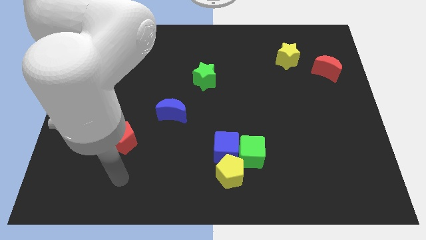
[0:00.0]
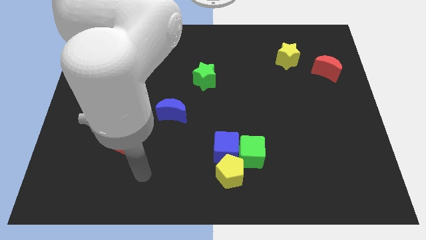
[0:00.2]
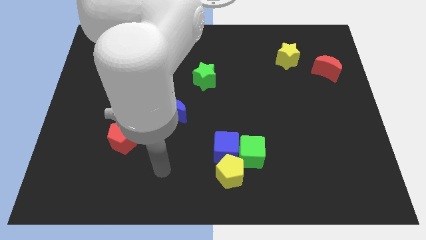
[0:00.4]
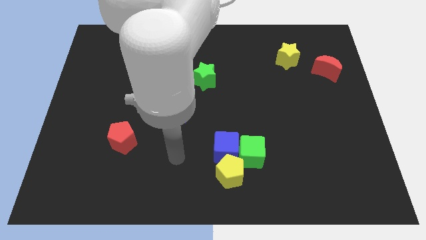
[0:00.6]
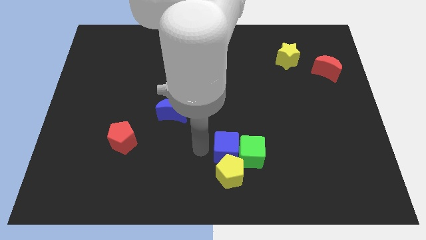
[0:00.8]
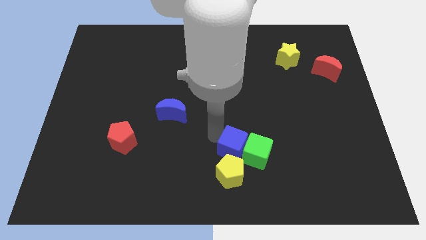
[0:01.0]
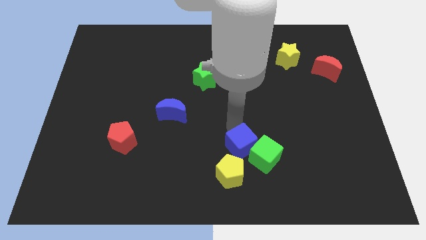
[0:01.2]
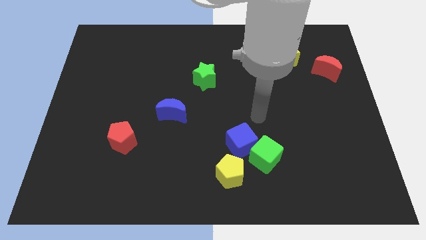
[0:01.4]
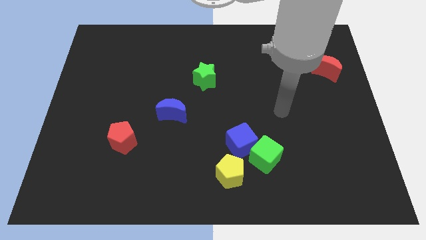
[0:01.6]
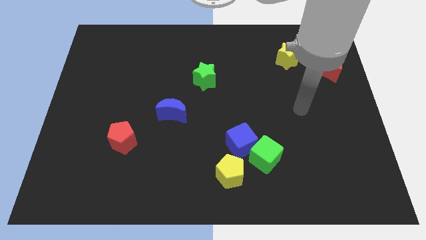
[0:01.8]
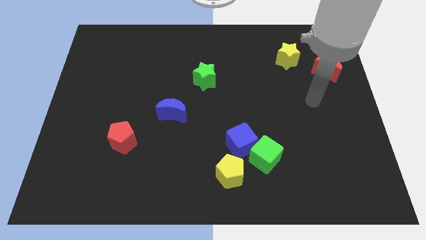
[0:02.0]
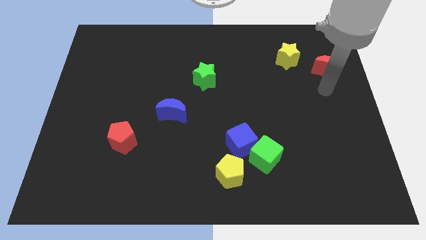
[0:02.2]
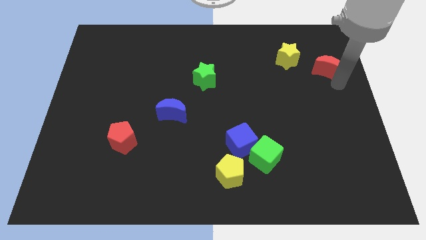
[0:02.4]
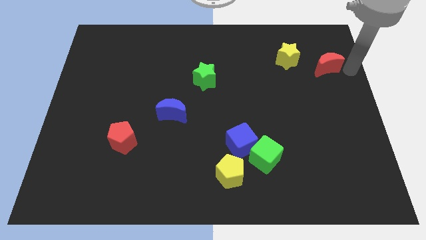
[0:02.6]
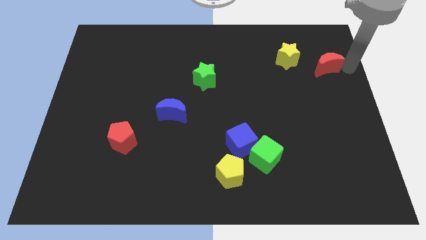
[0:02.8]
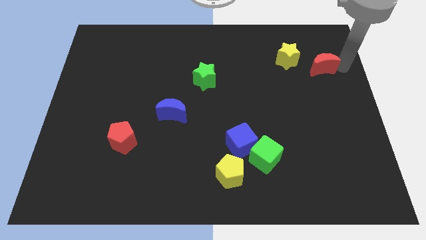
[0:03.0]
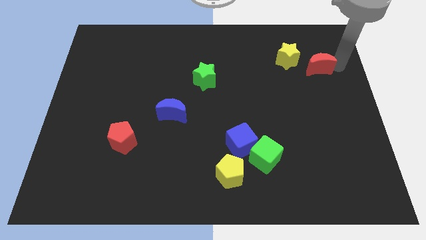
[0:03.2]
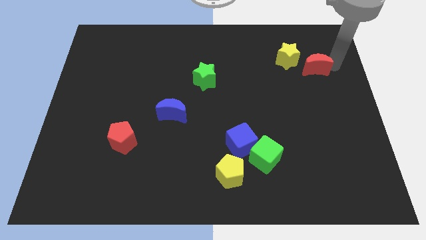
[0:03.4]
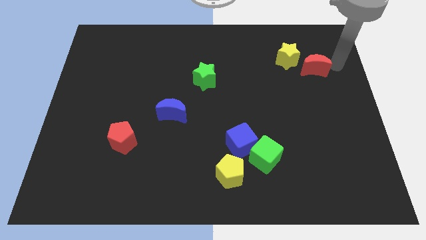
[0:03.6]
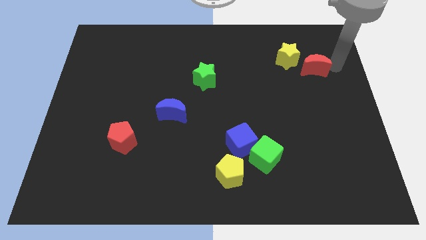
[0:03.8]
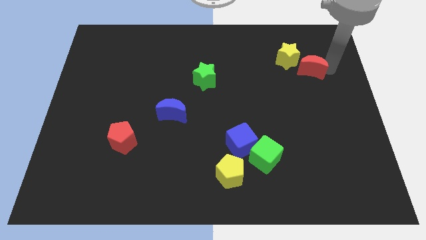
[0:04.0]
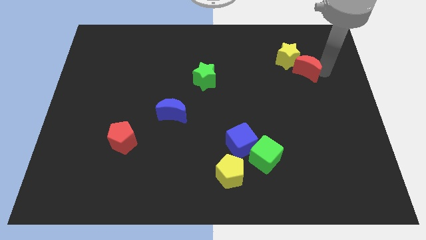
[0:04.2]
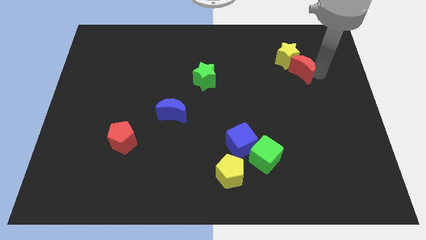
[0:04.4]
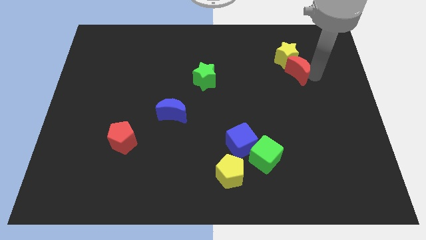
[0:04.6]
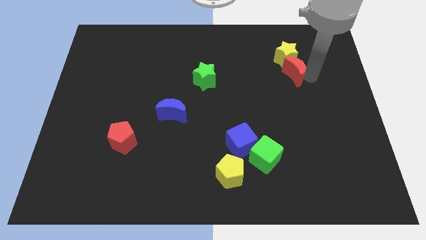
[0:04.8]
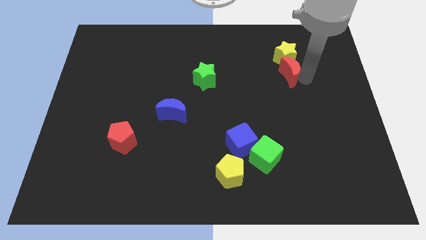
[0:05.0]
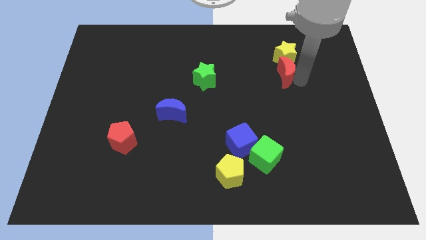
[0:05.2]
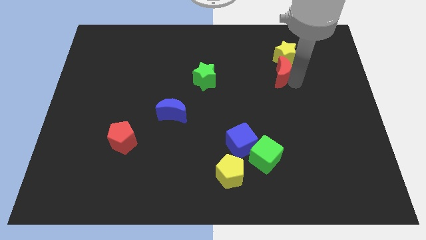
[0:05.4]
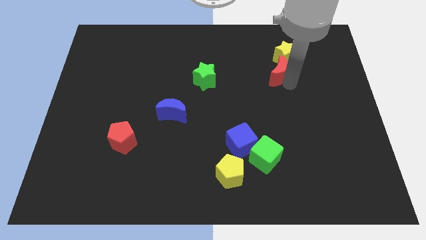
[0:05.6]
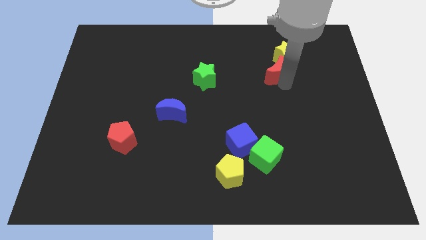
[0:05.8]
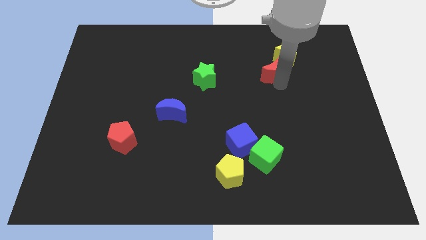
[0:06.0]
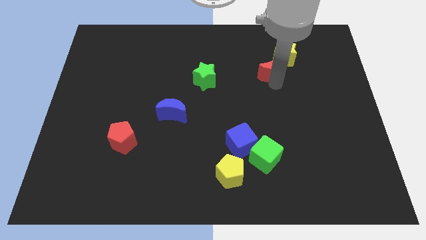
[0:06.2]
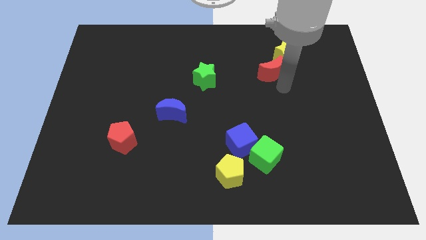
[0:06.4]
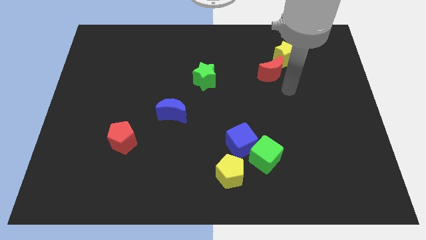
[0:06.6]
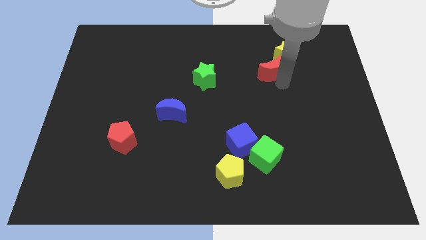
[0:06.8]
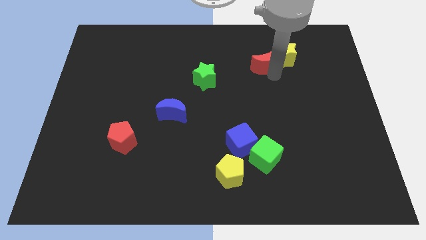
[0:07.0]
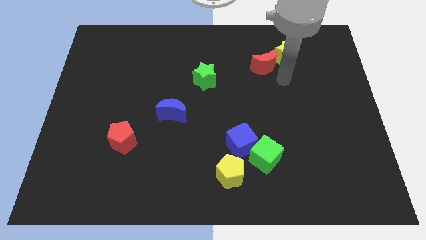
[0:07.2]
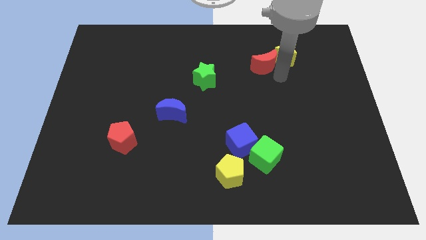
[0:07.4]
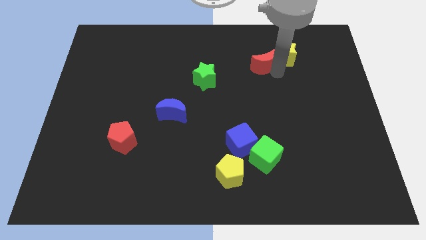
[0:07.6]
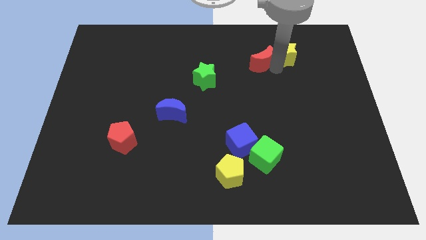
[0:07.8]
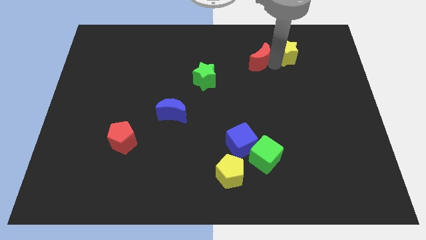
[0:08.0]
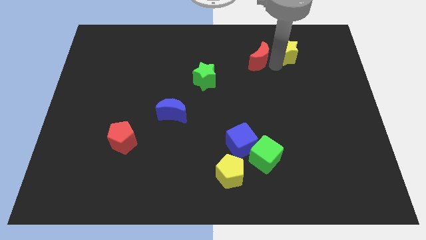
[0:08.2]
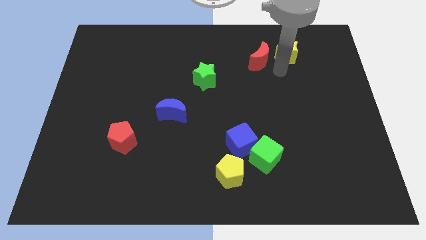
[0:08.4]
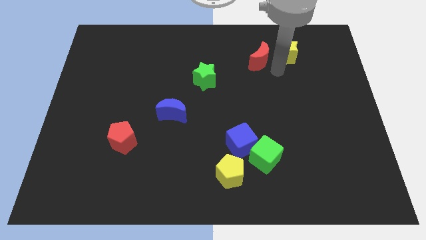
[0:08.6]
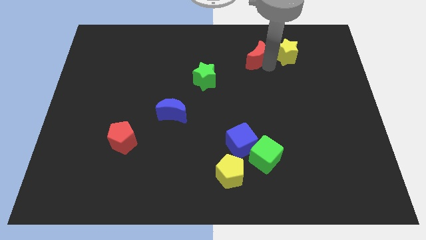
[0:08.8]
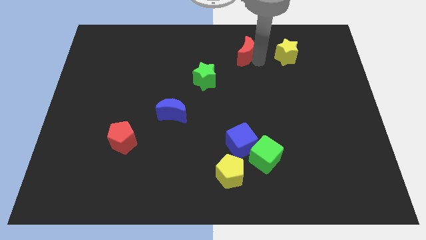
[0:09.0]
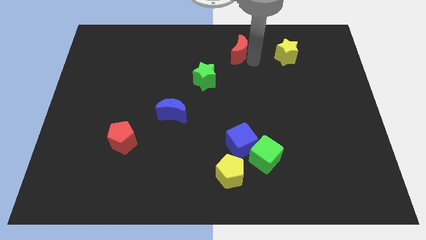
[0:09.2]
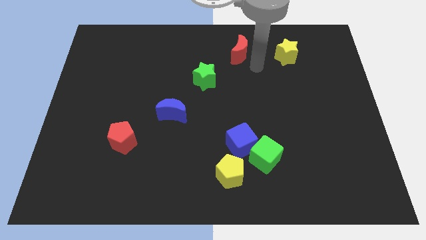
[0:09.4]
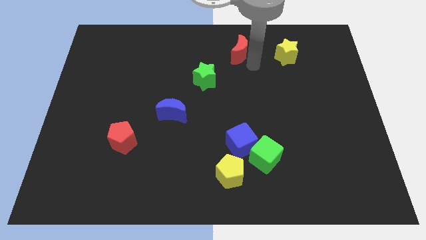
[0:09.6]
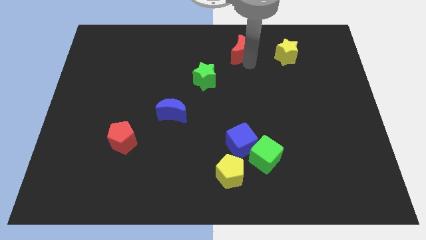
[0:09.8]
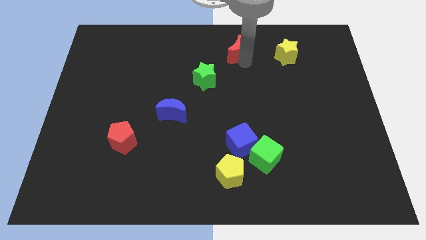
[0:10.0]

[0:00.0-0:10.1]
slide the red moon to the top

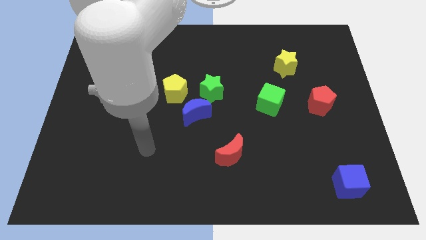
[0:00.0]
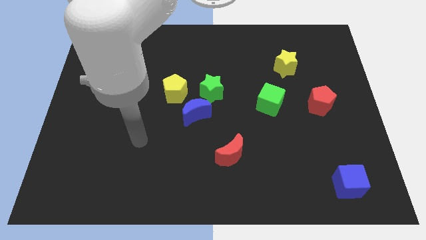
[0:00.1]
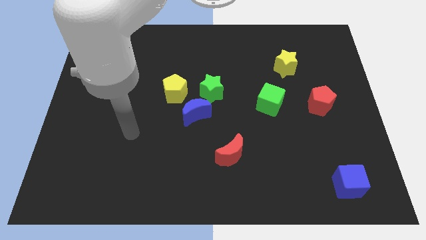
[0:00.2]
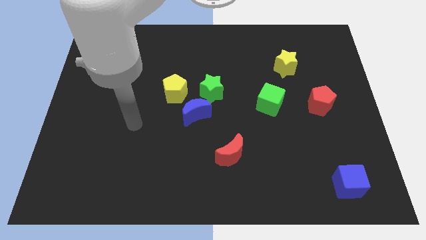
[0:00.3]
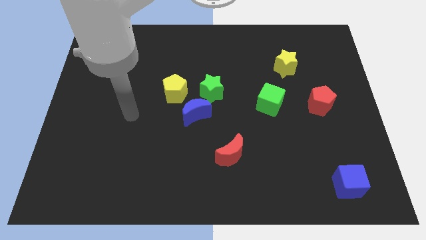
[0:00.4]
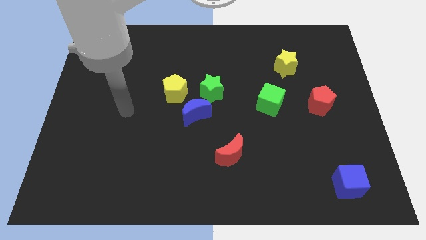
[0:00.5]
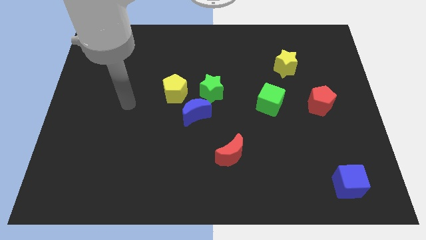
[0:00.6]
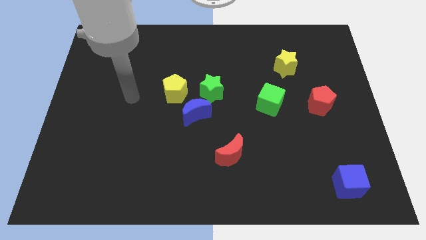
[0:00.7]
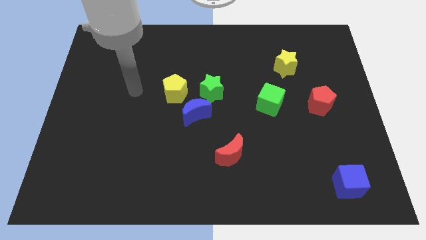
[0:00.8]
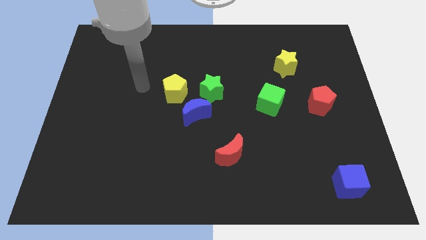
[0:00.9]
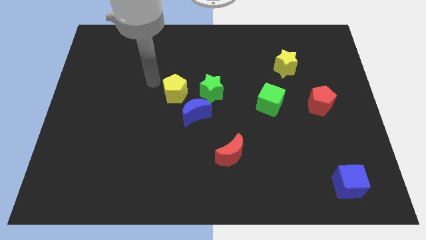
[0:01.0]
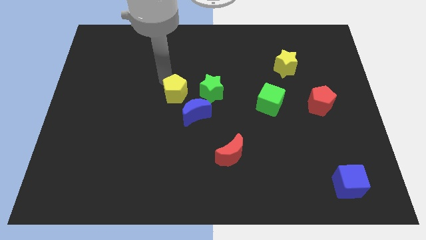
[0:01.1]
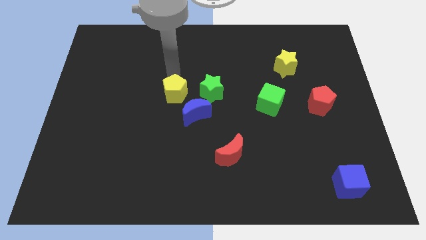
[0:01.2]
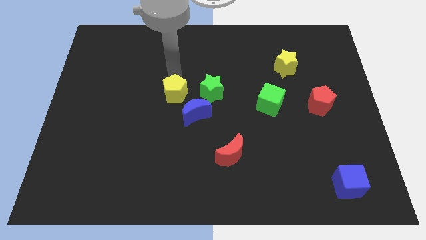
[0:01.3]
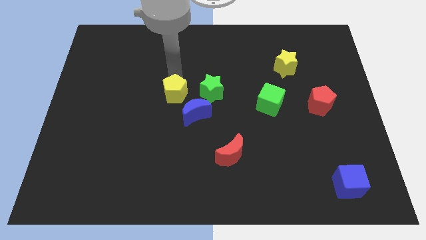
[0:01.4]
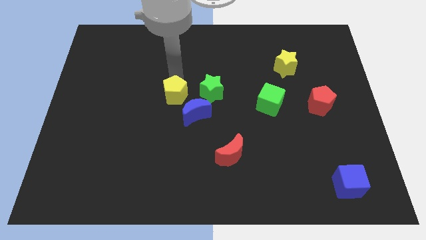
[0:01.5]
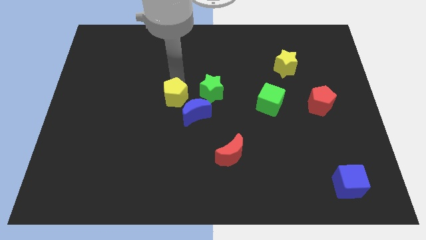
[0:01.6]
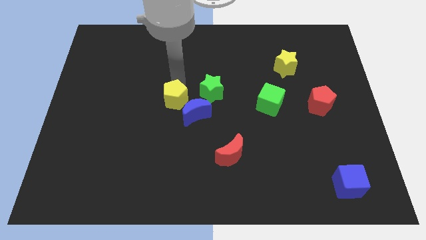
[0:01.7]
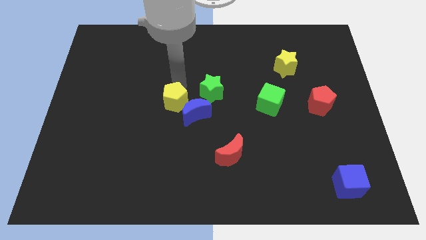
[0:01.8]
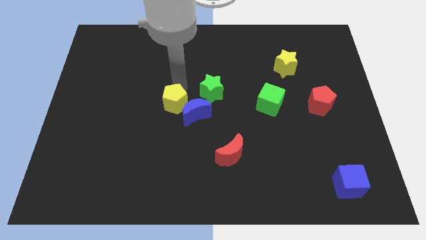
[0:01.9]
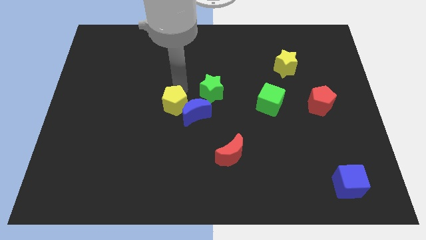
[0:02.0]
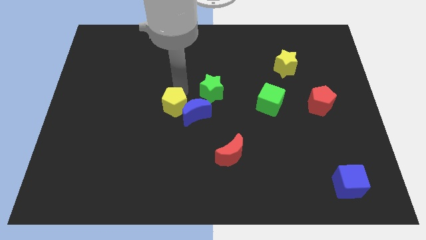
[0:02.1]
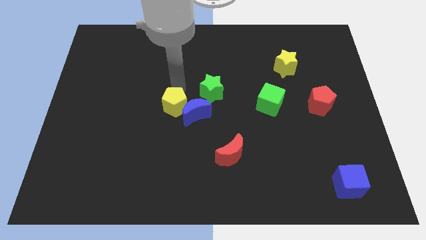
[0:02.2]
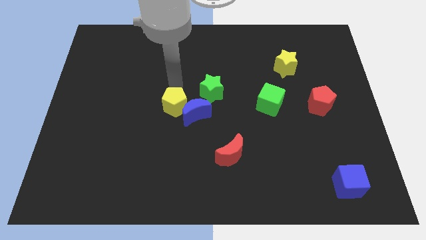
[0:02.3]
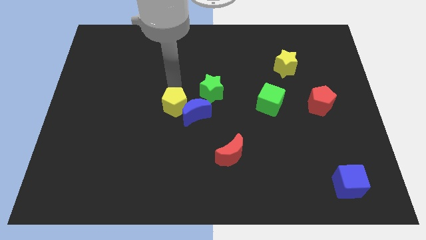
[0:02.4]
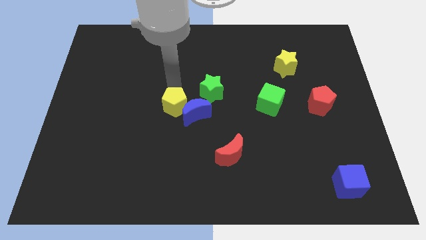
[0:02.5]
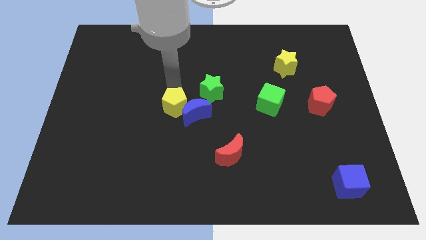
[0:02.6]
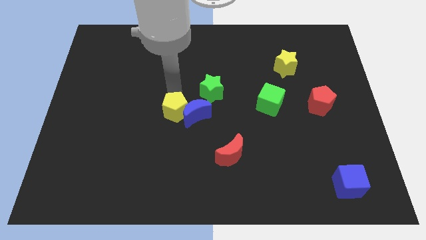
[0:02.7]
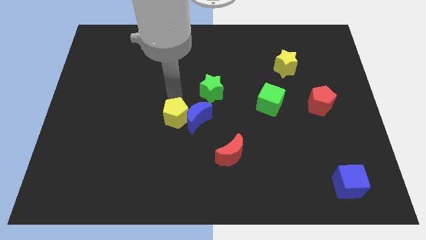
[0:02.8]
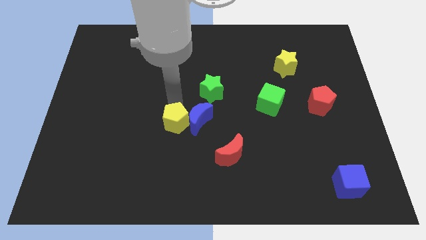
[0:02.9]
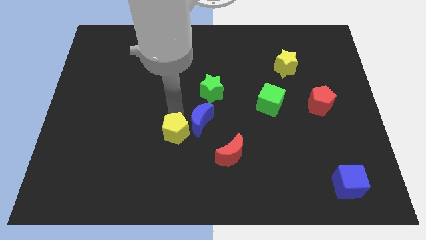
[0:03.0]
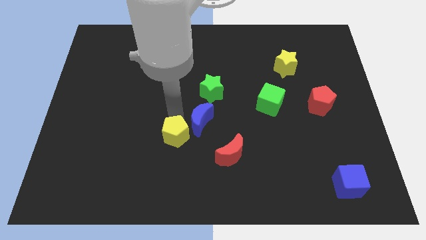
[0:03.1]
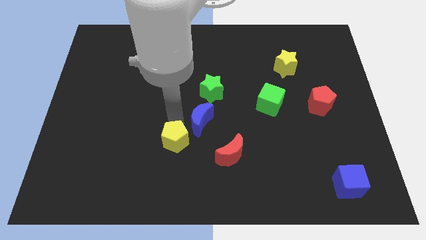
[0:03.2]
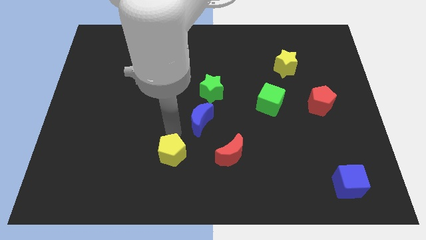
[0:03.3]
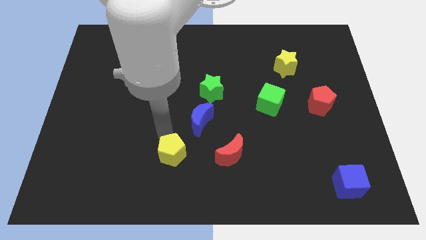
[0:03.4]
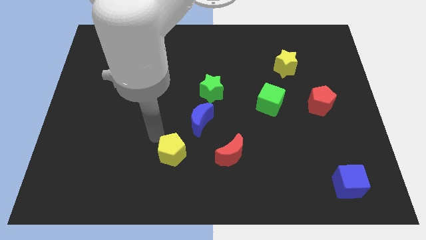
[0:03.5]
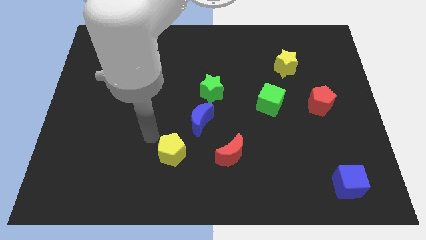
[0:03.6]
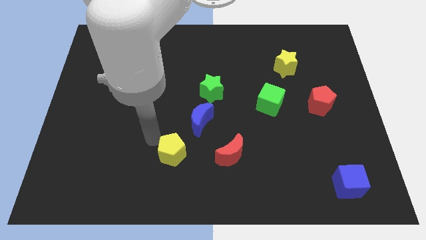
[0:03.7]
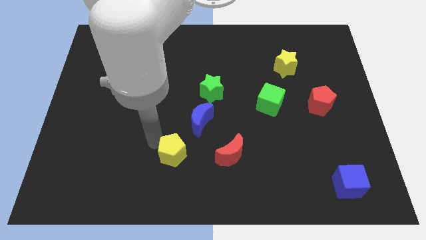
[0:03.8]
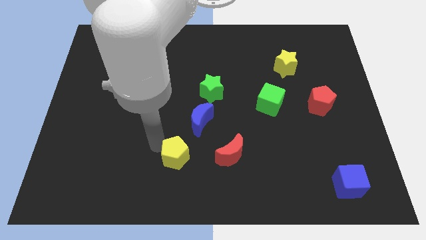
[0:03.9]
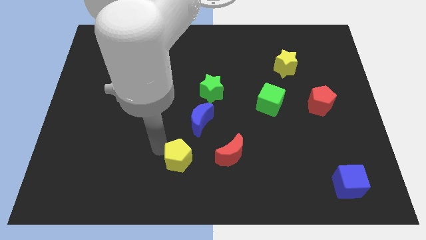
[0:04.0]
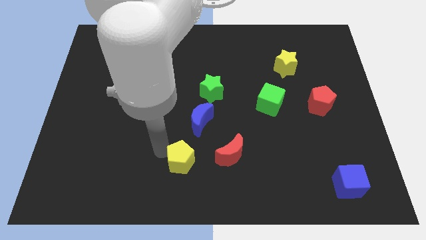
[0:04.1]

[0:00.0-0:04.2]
move the yellow pentagon to the bottom side
